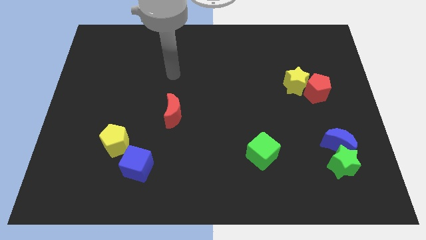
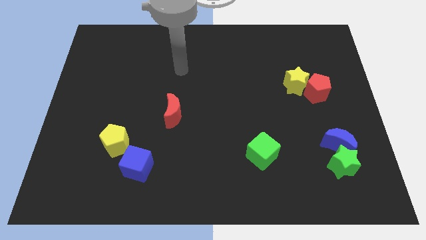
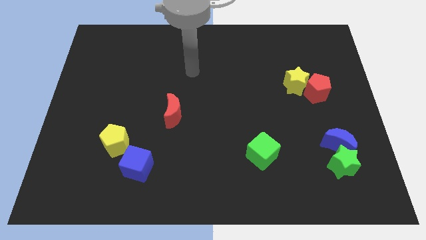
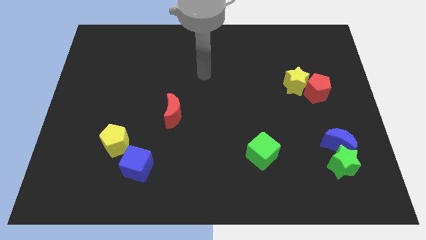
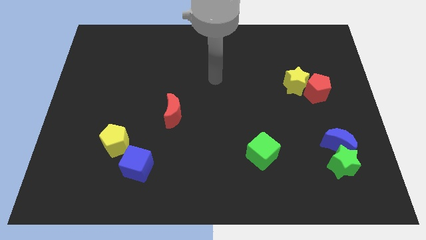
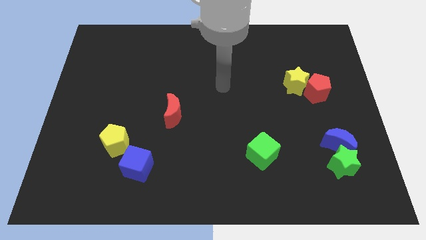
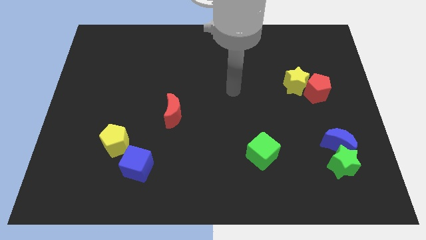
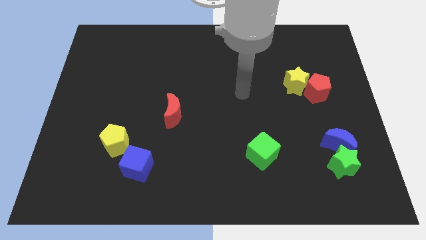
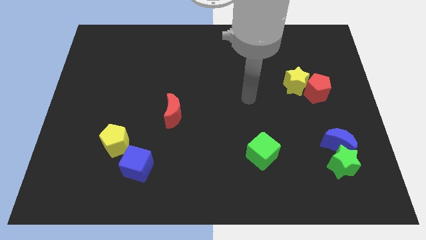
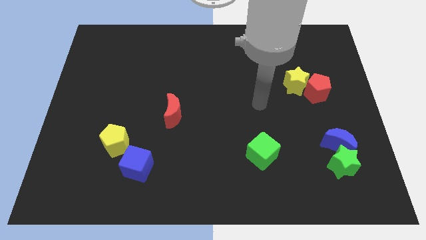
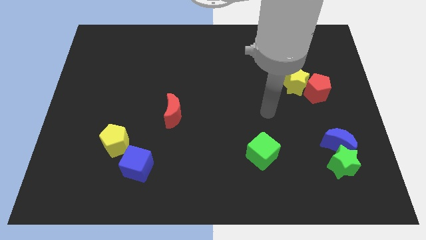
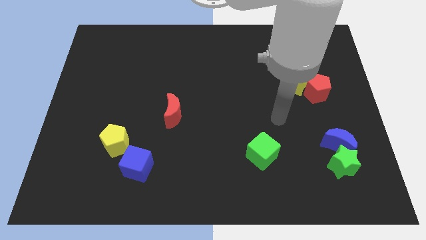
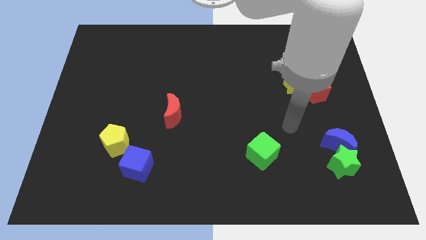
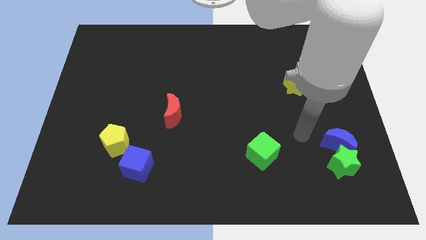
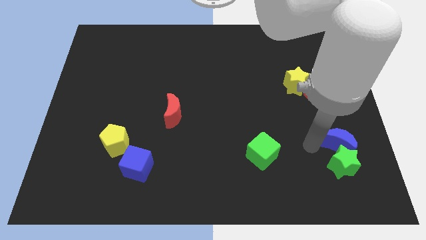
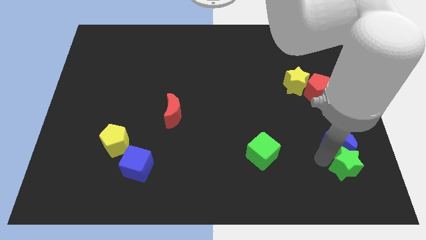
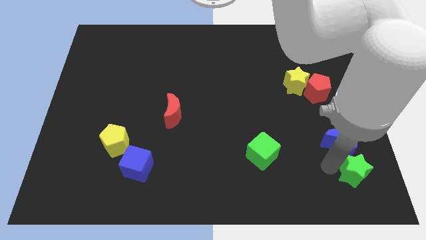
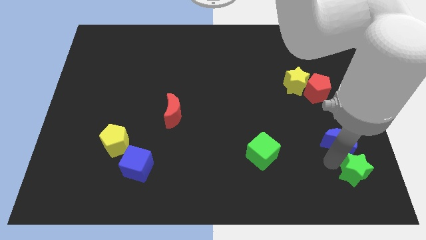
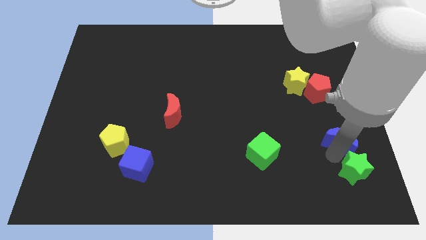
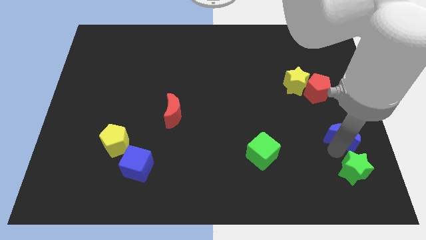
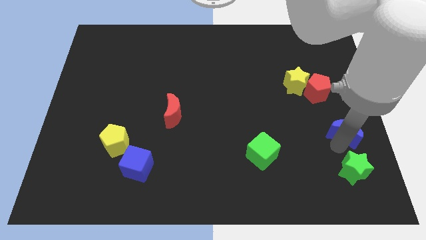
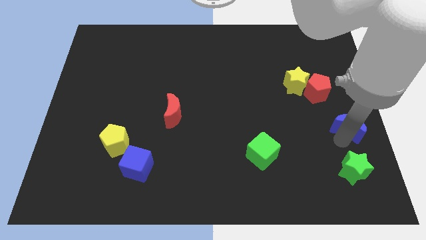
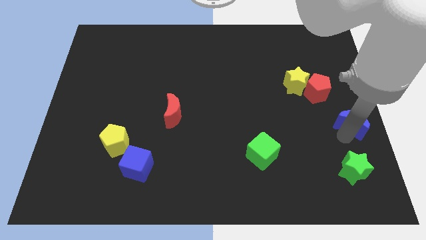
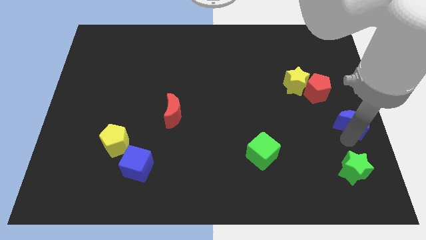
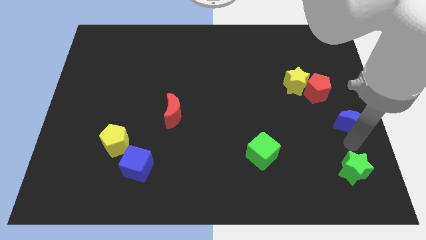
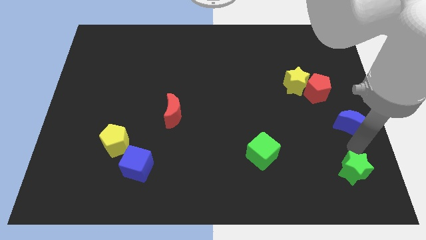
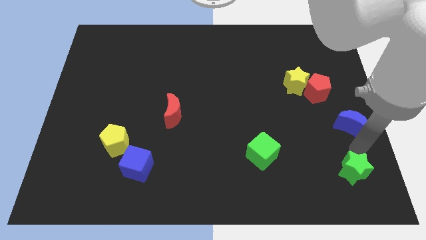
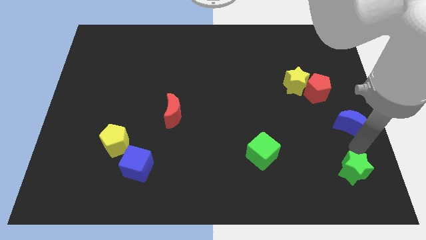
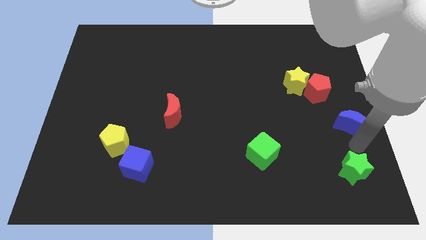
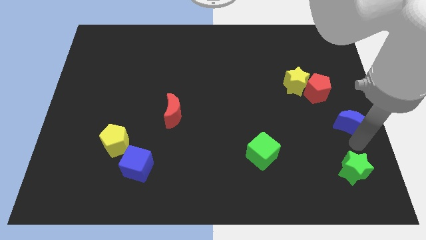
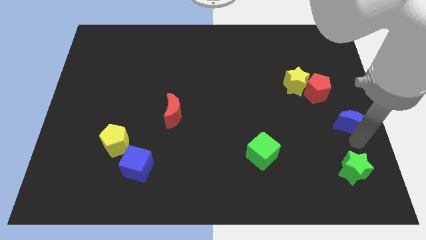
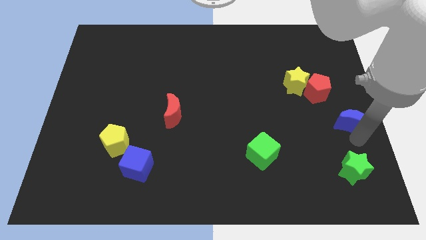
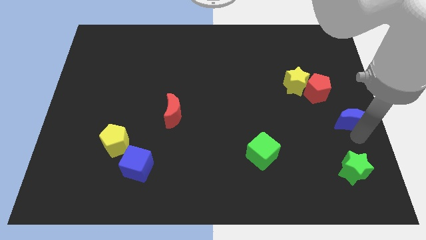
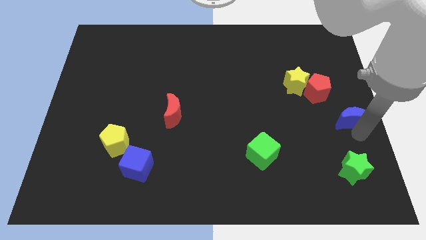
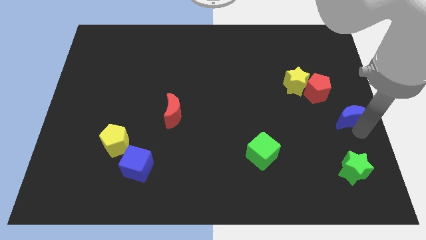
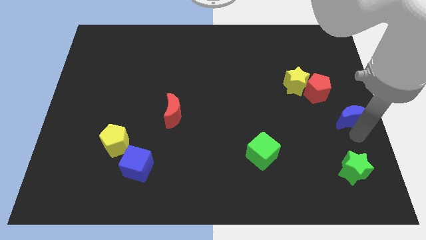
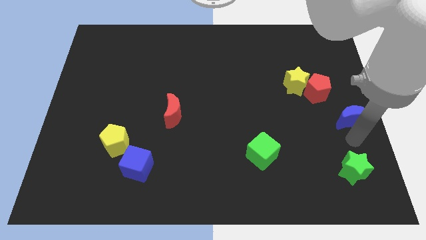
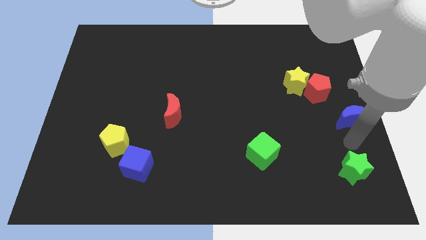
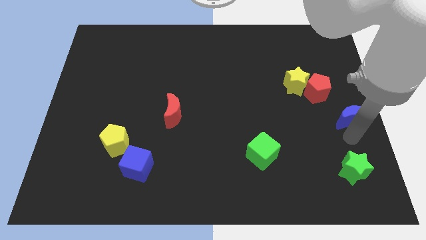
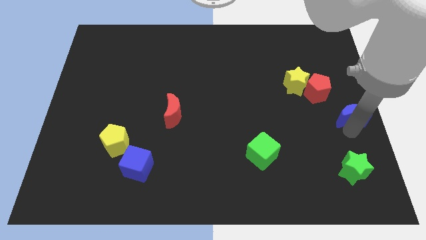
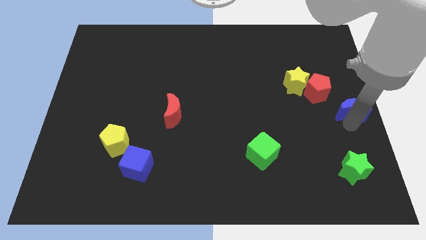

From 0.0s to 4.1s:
slide the blue moon upwards a bit

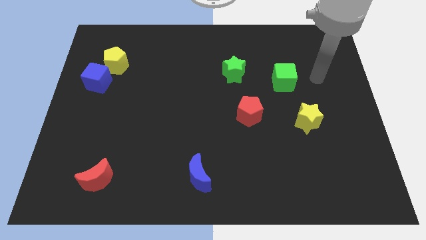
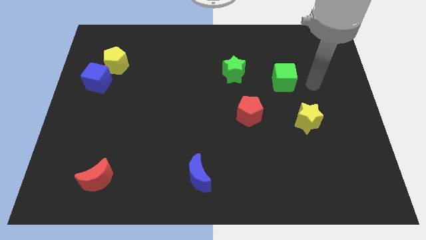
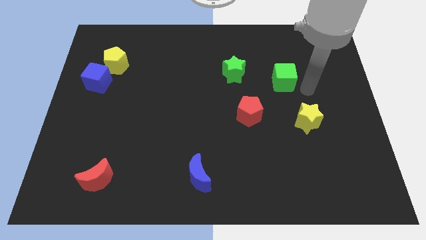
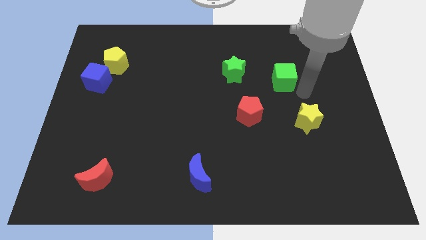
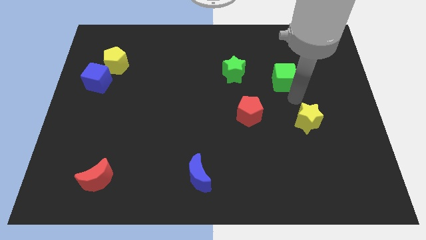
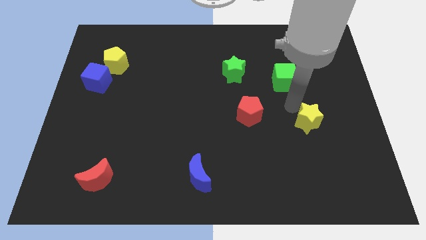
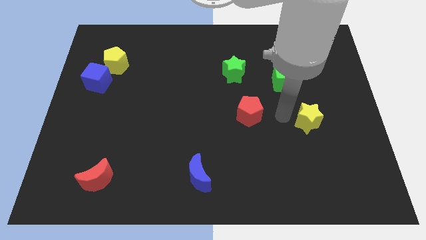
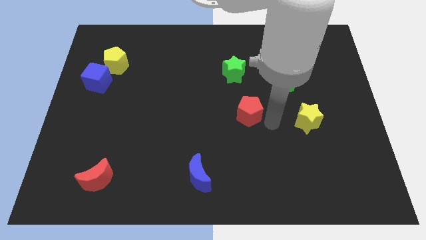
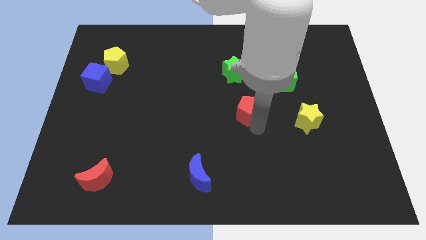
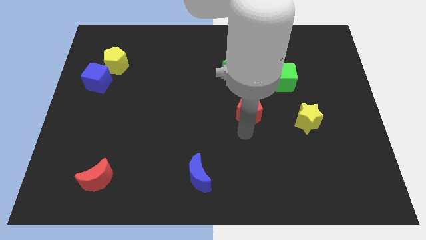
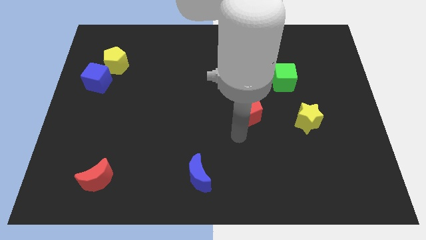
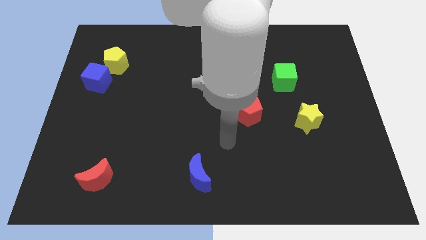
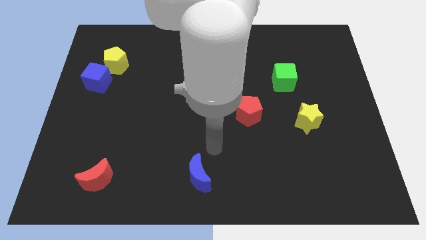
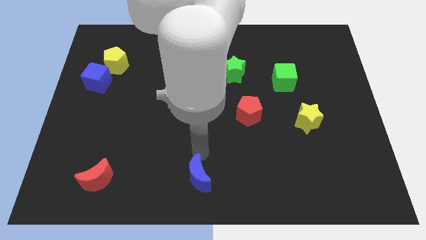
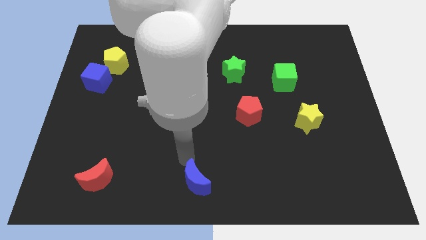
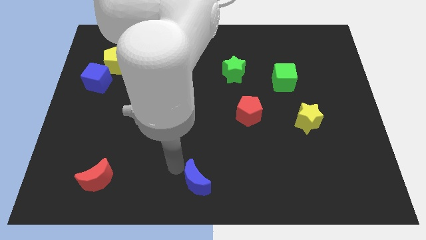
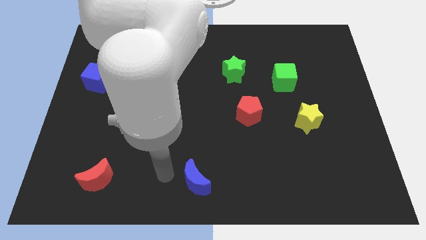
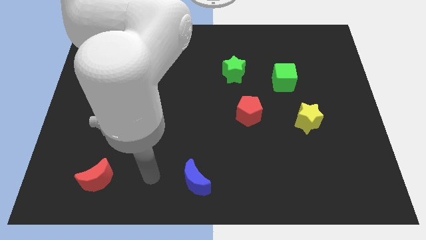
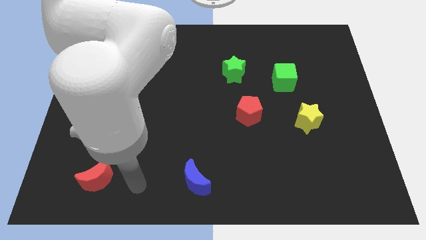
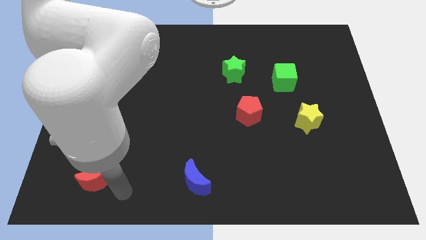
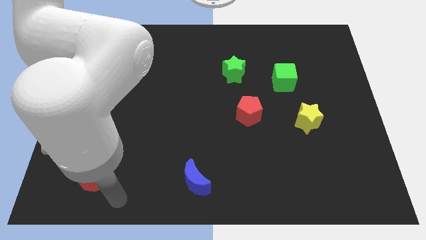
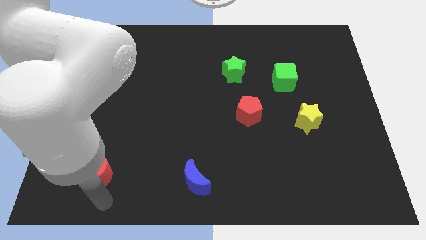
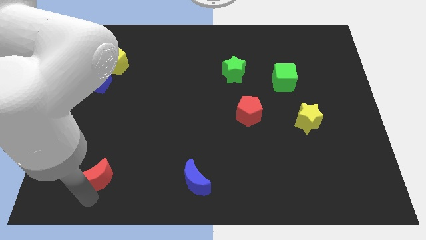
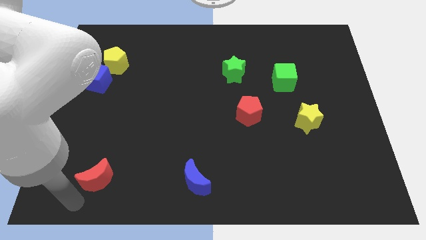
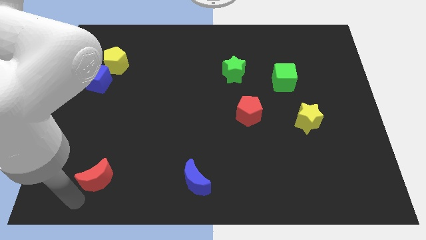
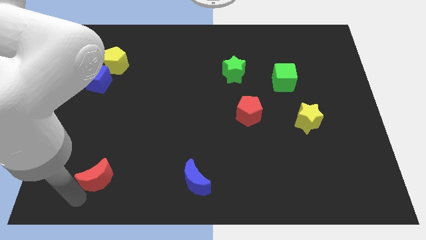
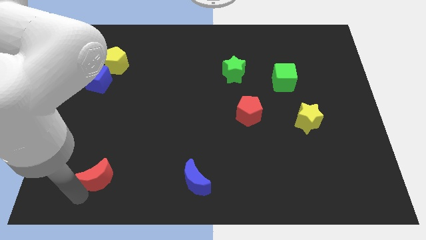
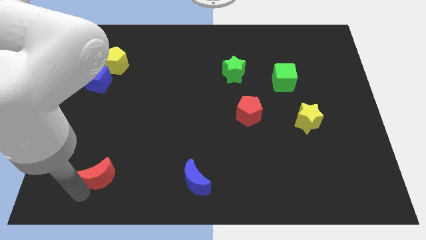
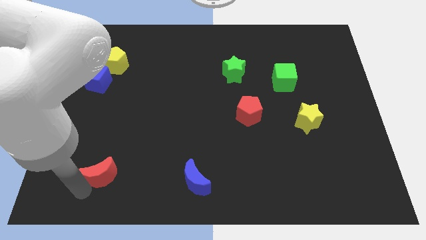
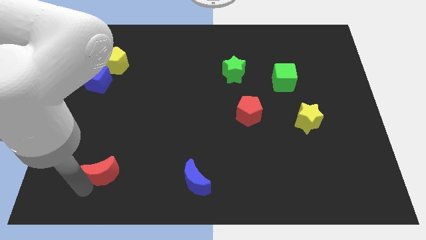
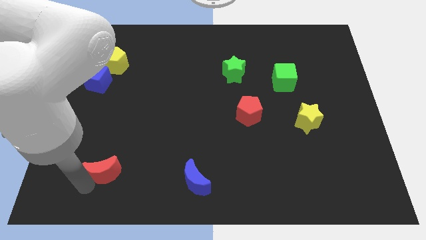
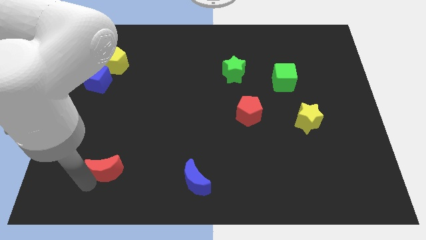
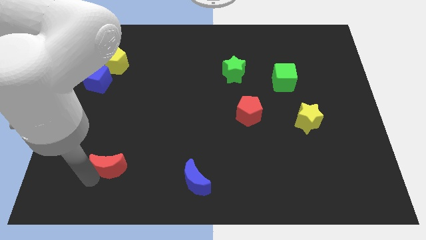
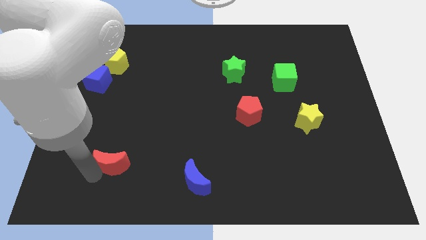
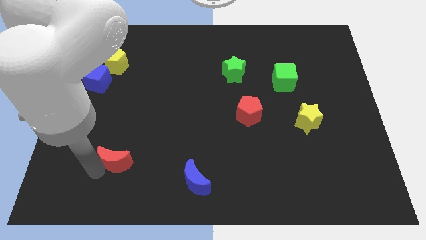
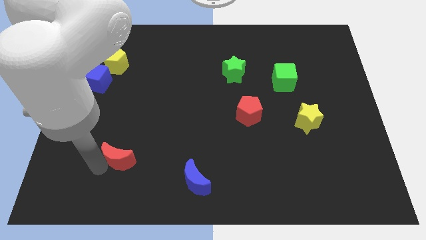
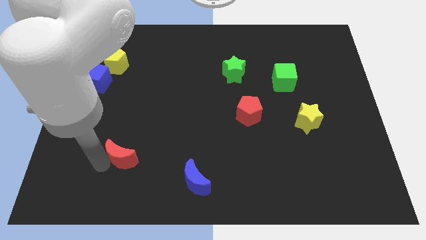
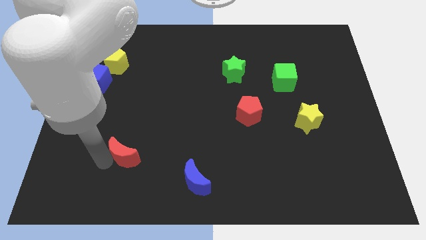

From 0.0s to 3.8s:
push the red moon diagonally up and right a little
